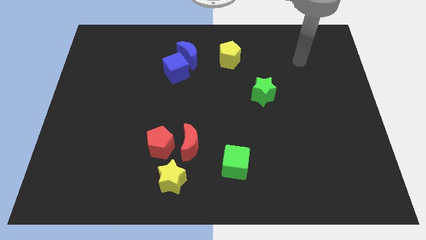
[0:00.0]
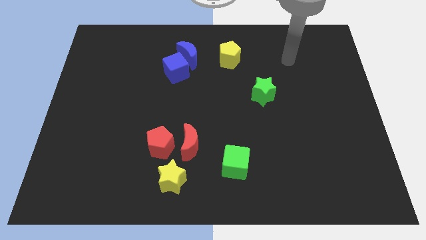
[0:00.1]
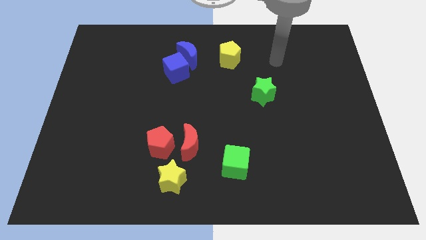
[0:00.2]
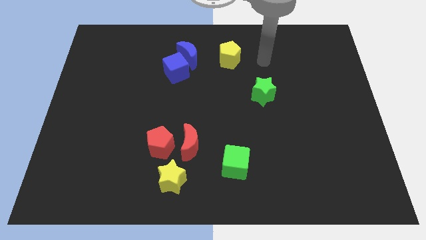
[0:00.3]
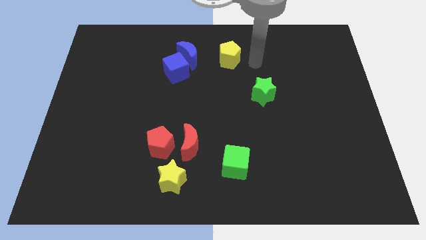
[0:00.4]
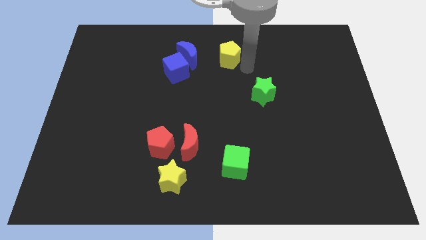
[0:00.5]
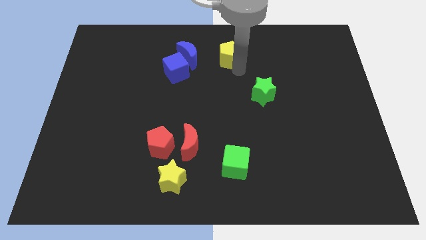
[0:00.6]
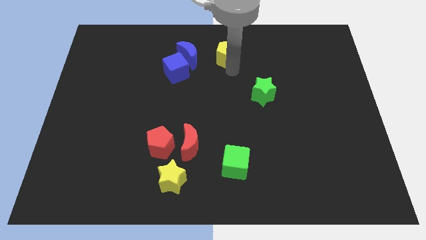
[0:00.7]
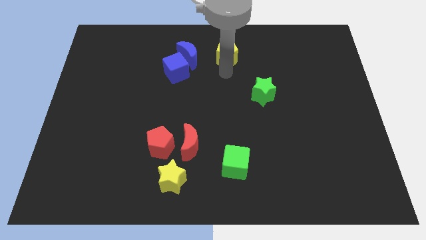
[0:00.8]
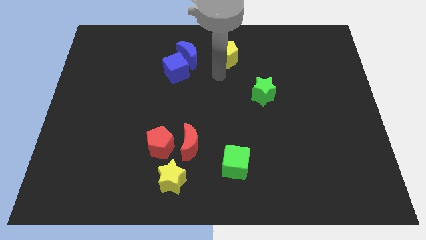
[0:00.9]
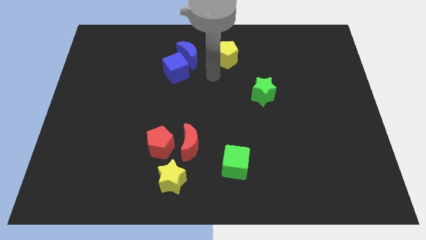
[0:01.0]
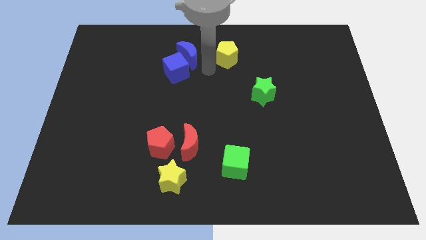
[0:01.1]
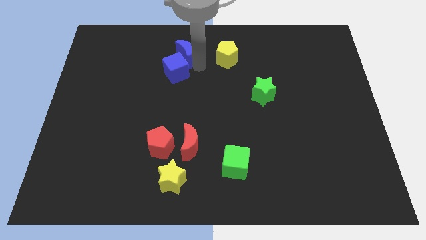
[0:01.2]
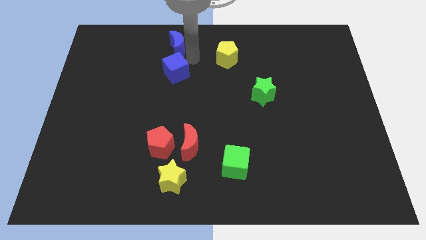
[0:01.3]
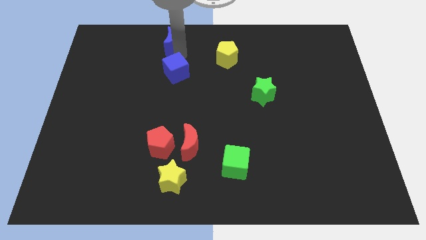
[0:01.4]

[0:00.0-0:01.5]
separate the blue cube from the blue moon

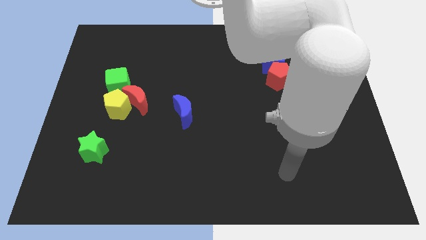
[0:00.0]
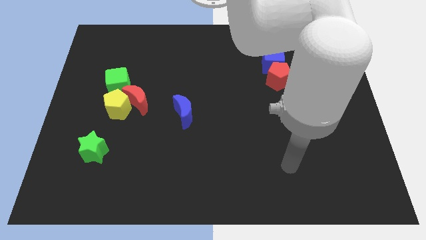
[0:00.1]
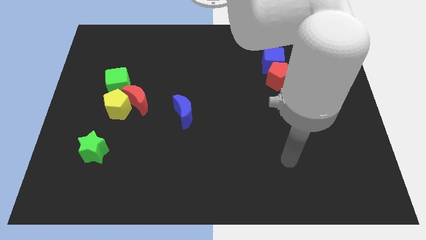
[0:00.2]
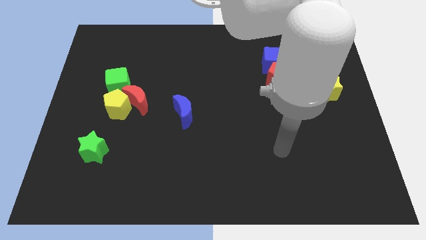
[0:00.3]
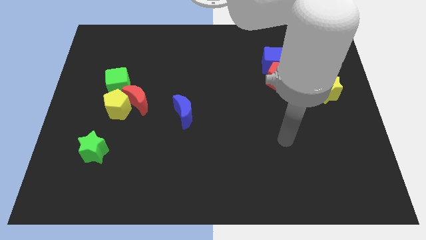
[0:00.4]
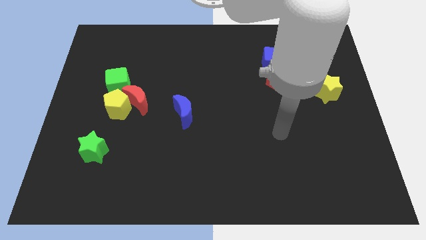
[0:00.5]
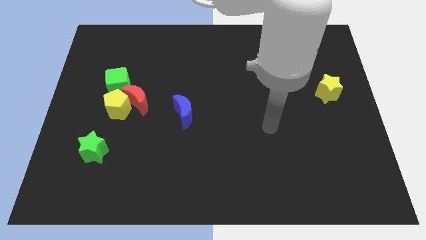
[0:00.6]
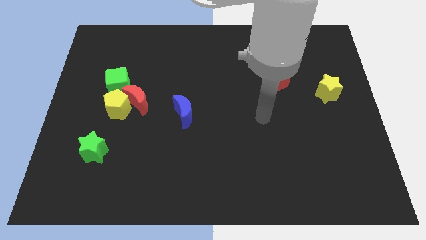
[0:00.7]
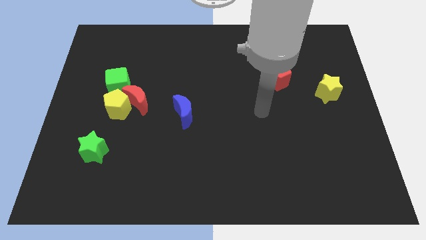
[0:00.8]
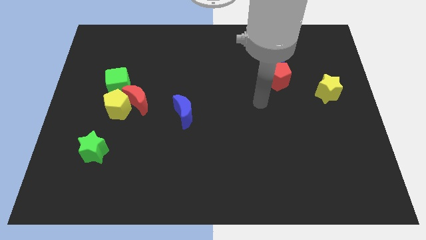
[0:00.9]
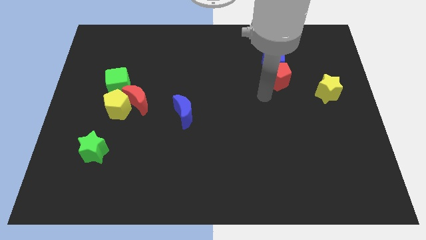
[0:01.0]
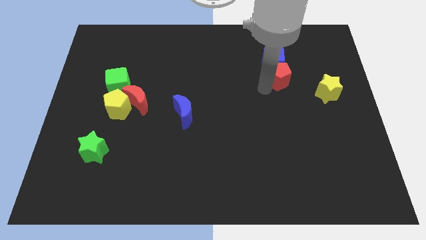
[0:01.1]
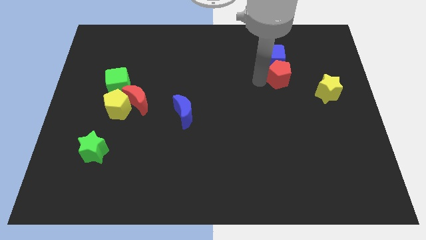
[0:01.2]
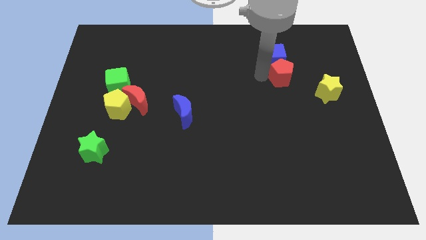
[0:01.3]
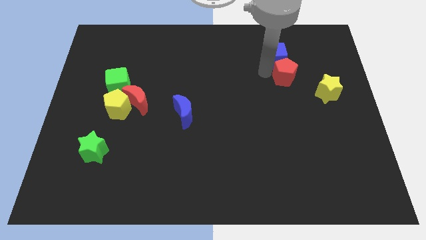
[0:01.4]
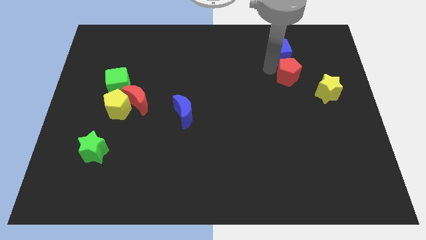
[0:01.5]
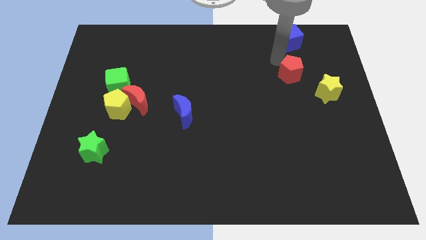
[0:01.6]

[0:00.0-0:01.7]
move the red pentagon away from the blue cube

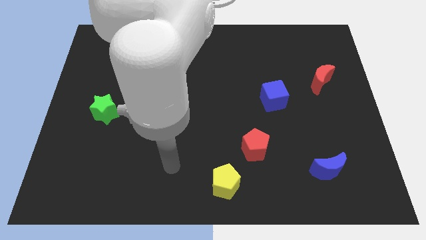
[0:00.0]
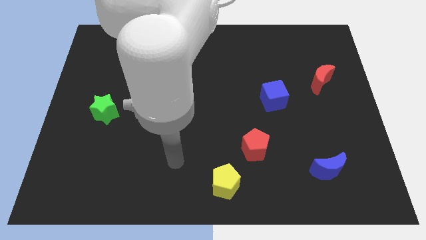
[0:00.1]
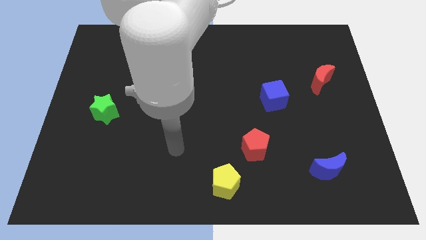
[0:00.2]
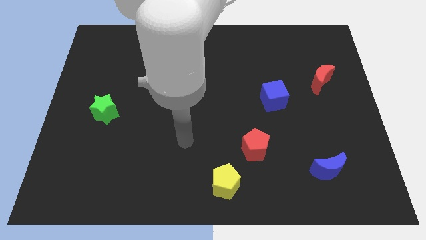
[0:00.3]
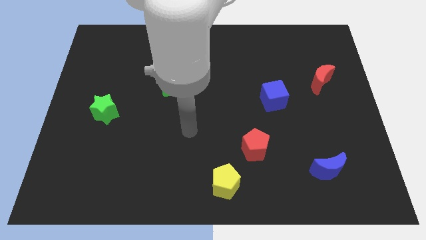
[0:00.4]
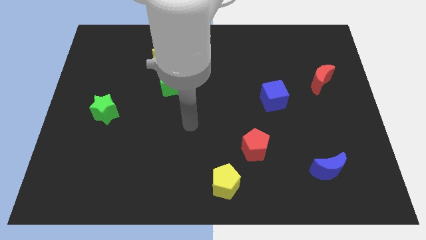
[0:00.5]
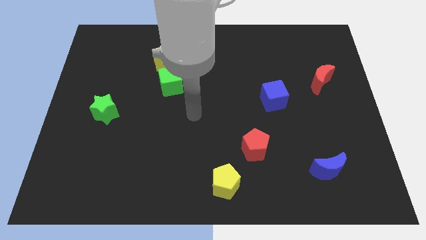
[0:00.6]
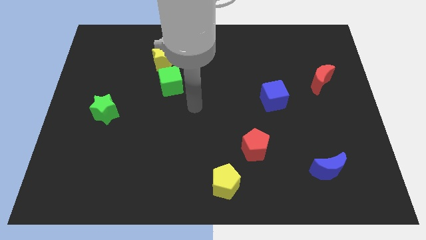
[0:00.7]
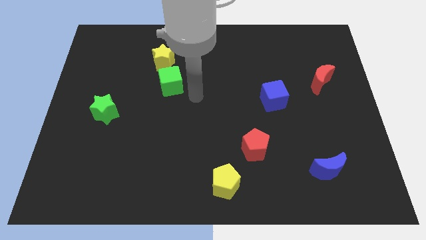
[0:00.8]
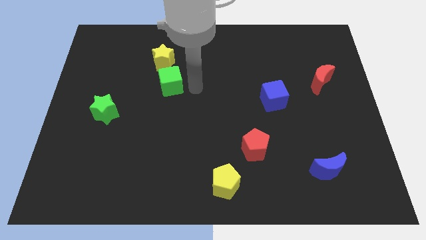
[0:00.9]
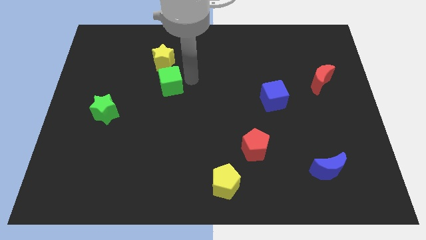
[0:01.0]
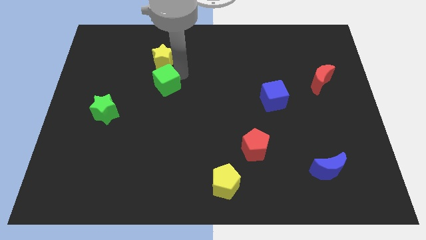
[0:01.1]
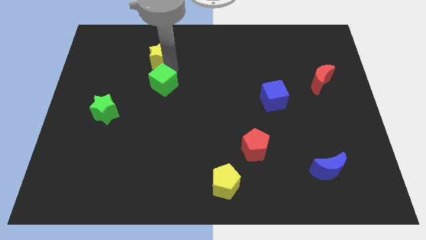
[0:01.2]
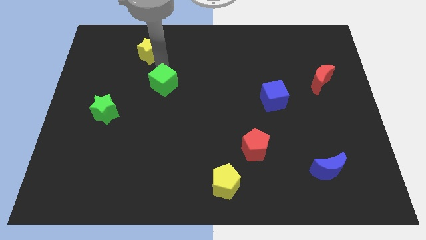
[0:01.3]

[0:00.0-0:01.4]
separate the green cube from the yellow star

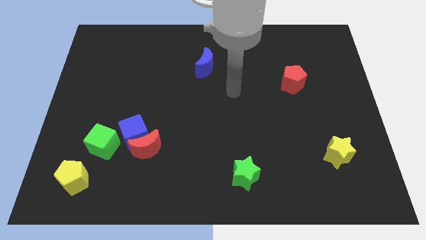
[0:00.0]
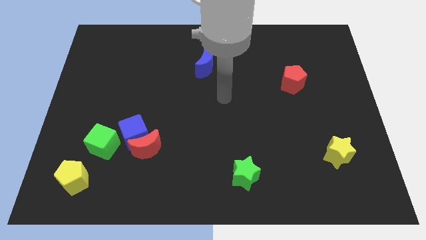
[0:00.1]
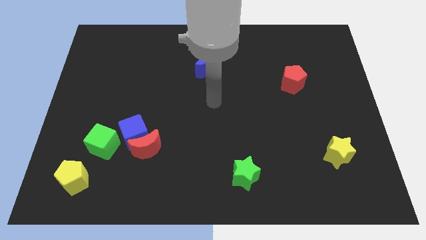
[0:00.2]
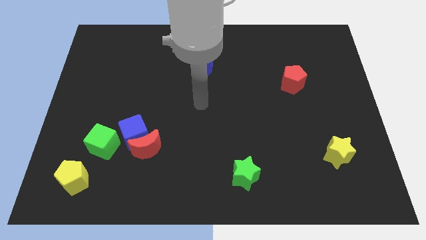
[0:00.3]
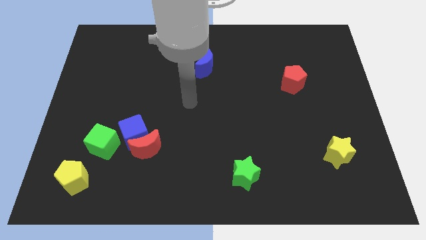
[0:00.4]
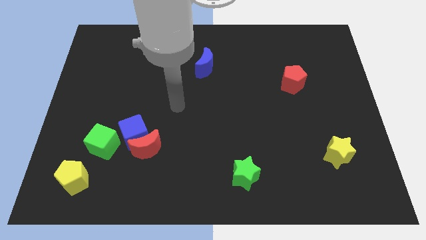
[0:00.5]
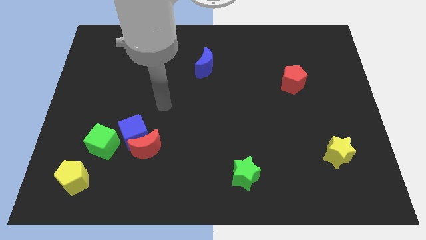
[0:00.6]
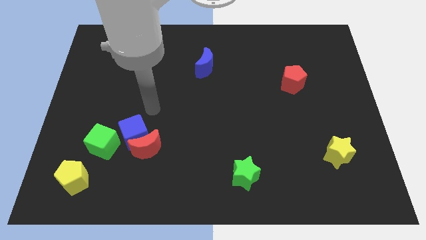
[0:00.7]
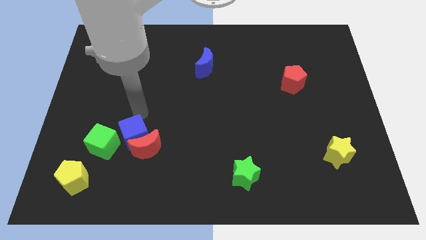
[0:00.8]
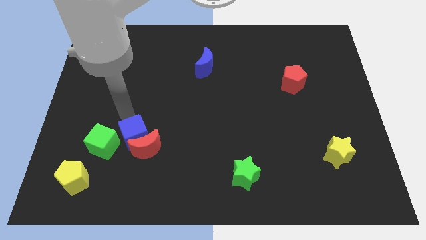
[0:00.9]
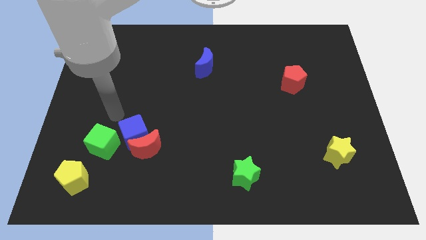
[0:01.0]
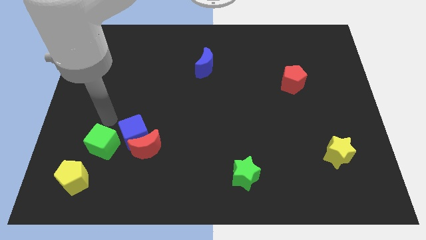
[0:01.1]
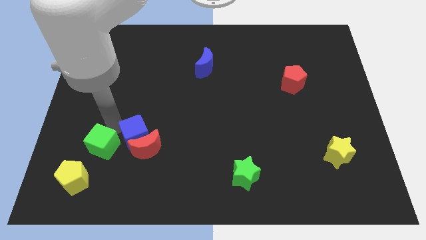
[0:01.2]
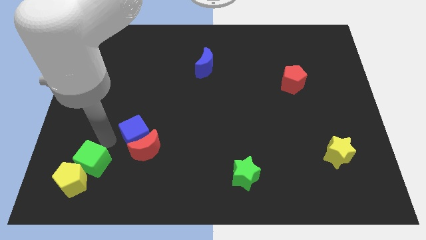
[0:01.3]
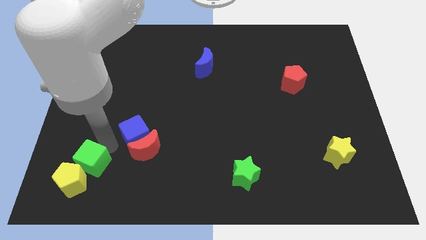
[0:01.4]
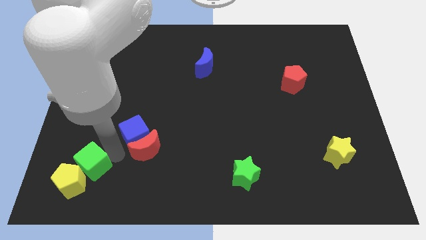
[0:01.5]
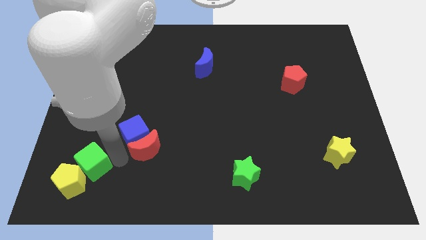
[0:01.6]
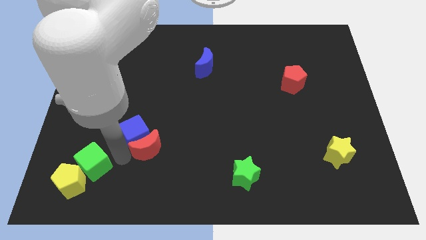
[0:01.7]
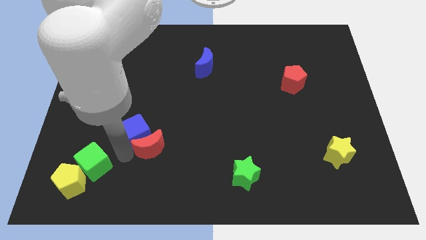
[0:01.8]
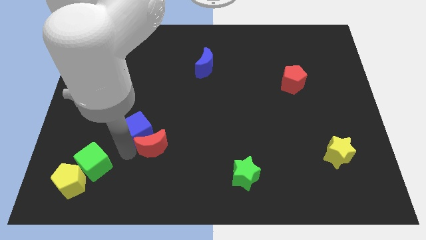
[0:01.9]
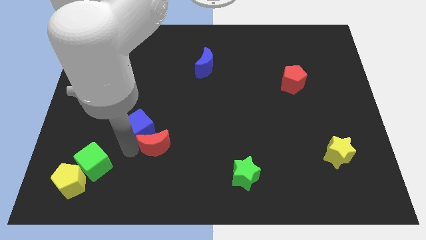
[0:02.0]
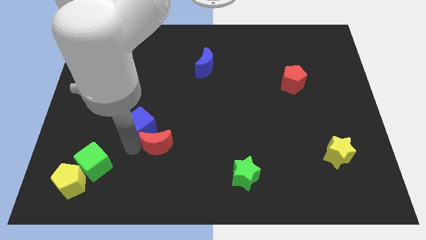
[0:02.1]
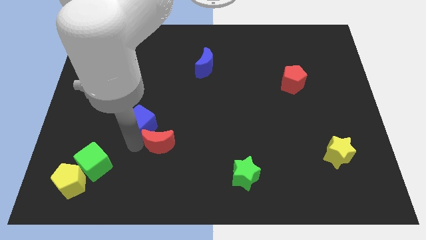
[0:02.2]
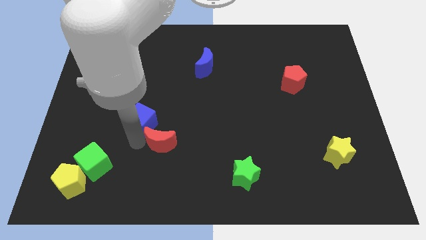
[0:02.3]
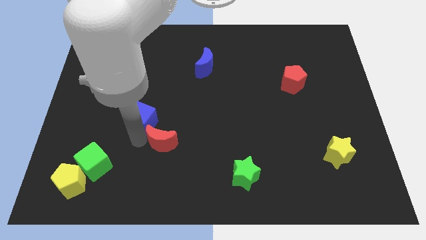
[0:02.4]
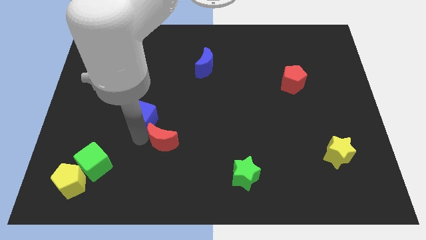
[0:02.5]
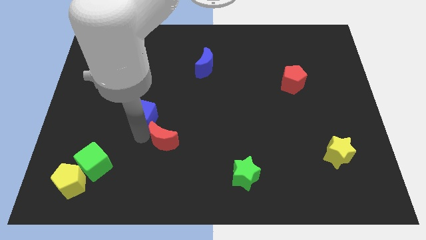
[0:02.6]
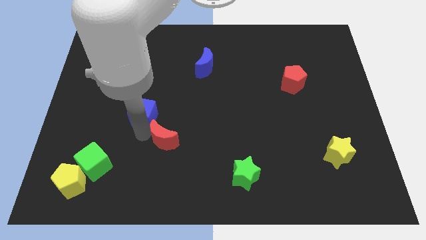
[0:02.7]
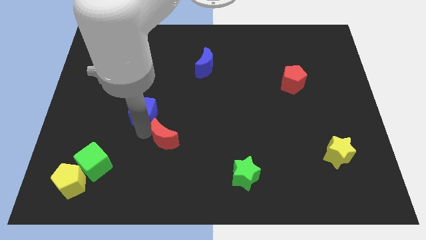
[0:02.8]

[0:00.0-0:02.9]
pull the blue cube apart from the red moon and green cube

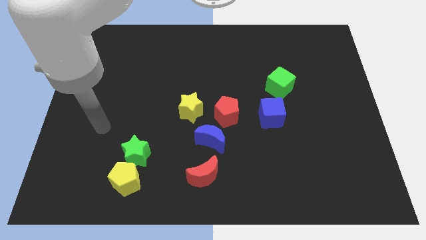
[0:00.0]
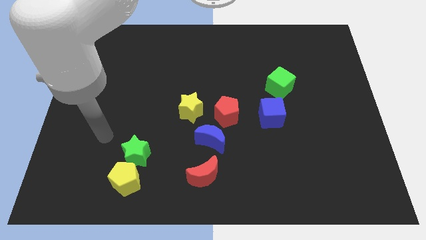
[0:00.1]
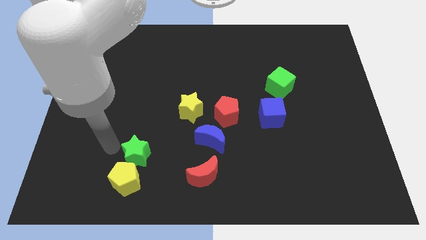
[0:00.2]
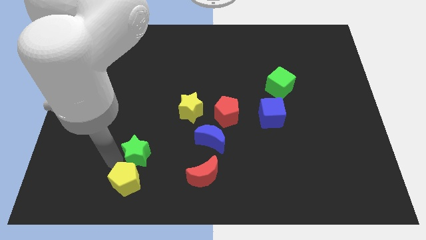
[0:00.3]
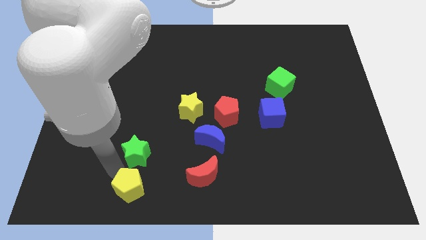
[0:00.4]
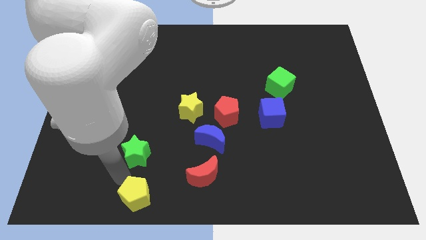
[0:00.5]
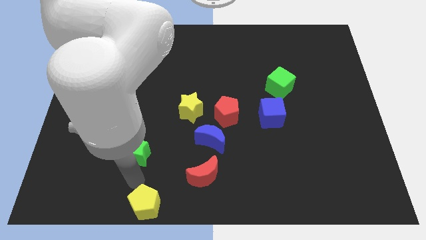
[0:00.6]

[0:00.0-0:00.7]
move the green star away from the yellow pentagon

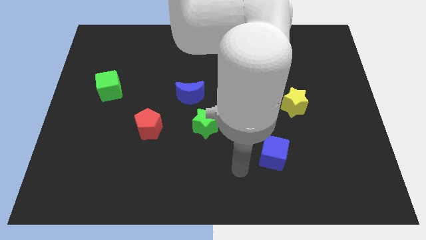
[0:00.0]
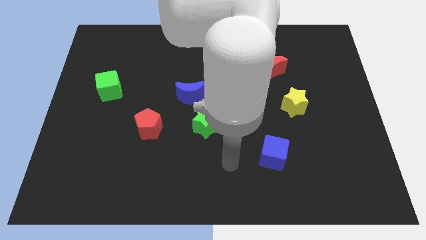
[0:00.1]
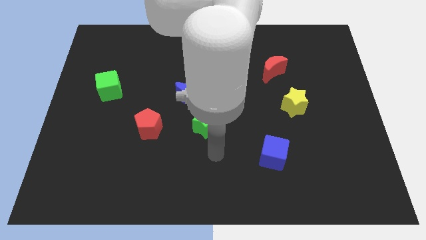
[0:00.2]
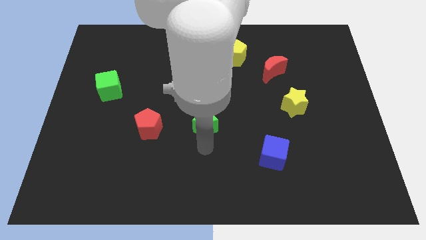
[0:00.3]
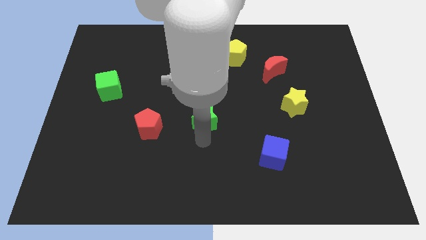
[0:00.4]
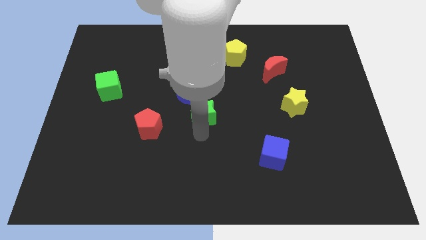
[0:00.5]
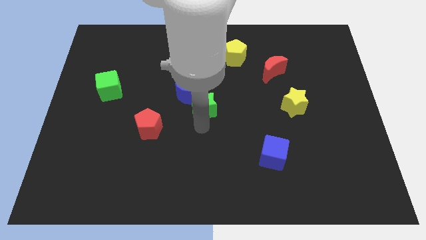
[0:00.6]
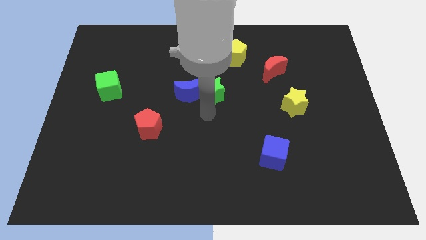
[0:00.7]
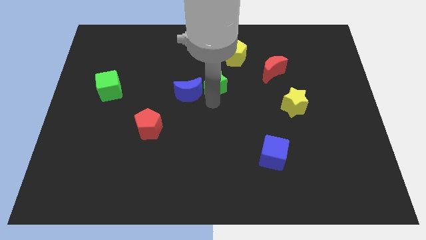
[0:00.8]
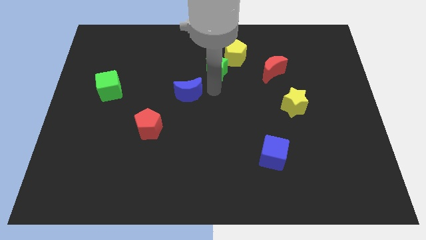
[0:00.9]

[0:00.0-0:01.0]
separate the blue moon from the green star

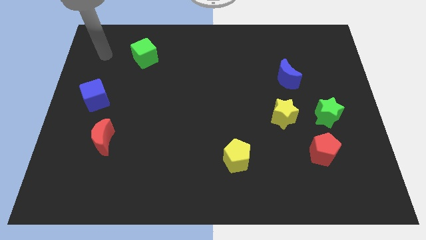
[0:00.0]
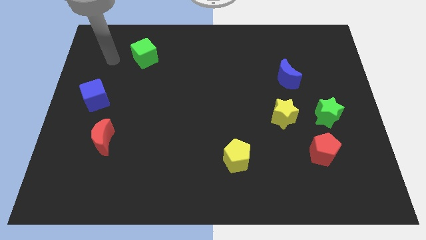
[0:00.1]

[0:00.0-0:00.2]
pull the red pentagon apart from the green star
